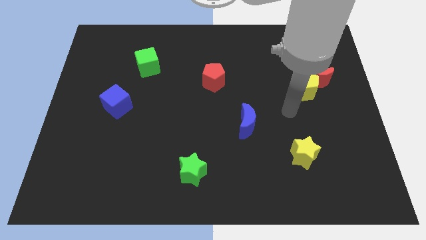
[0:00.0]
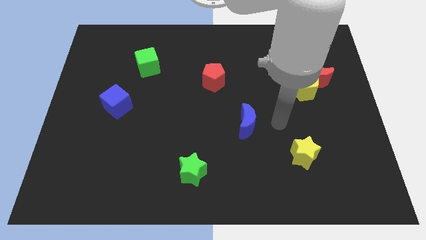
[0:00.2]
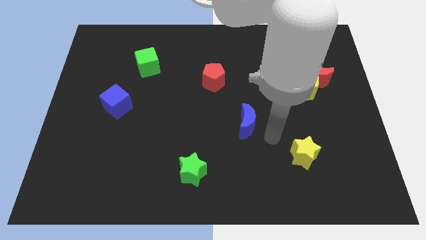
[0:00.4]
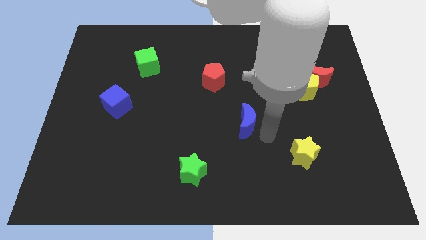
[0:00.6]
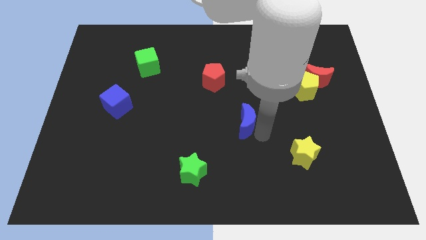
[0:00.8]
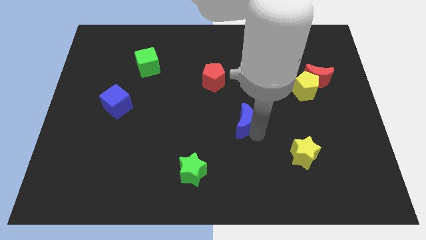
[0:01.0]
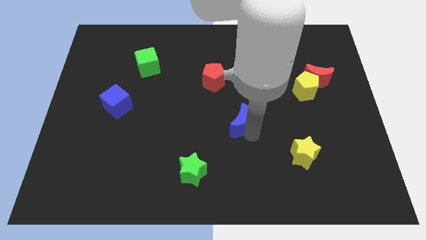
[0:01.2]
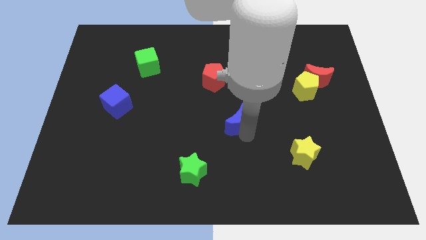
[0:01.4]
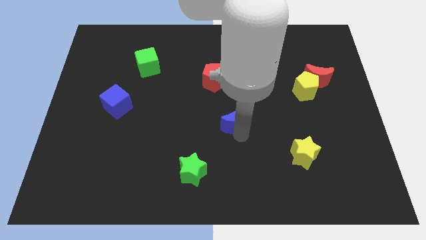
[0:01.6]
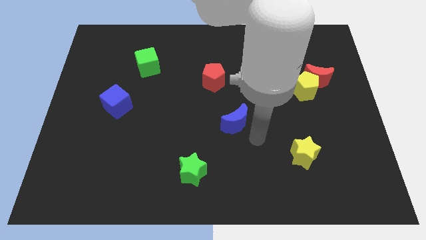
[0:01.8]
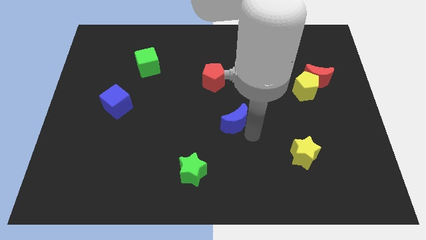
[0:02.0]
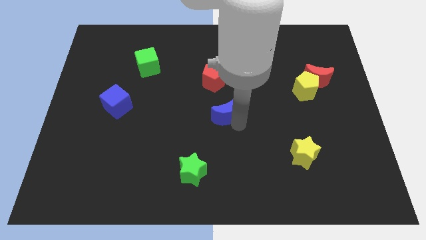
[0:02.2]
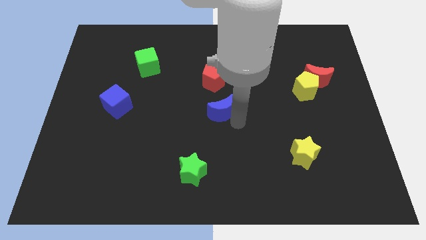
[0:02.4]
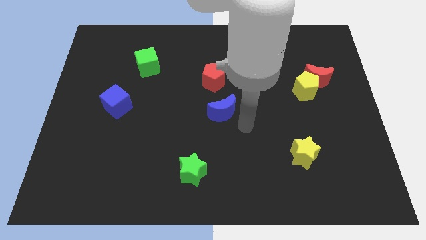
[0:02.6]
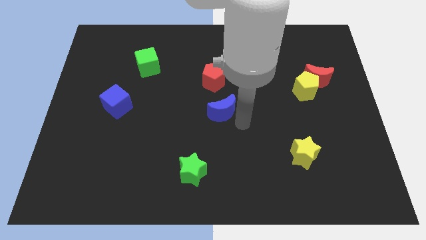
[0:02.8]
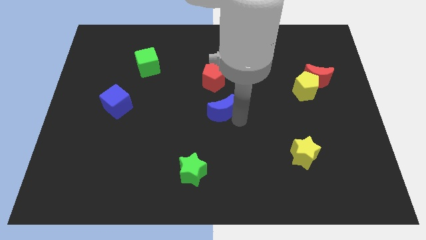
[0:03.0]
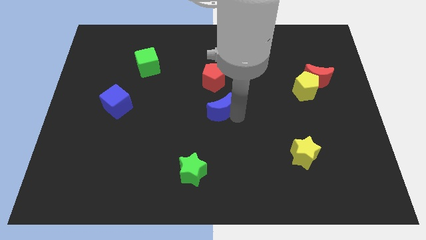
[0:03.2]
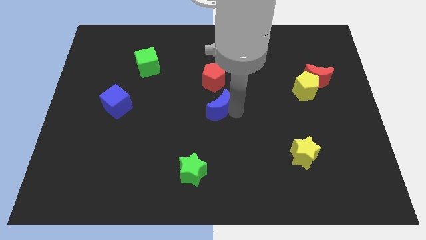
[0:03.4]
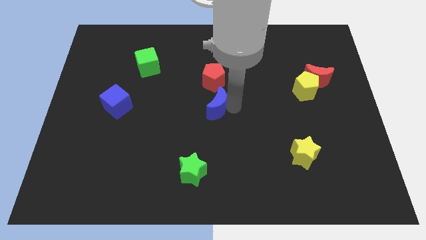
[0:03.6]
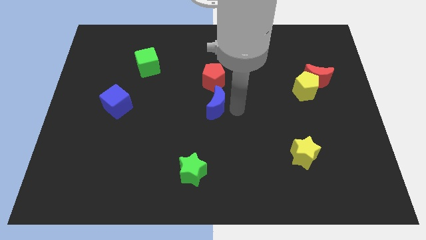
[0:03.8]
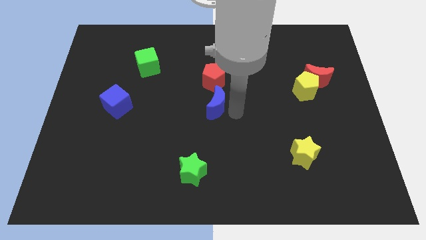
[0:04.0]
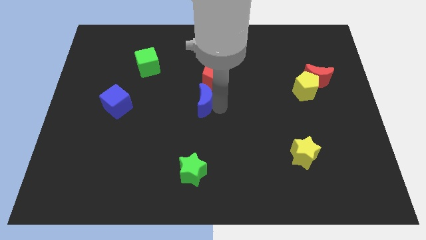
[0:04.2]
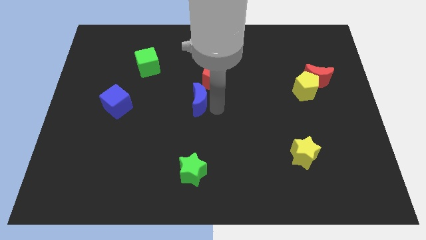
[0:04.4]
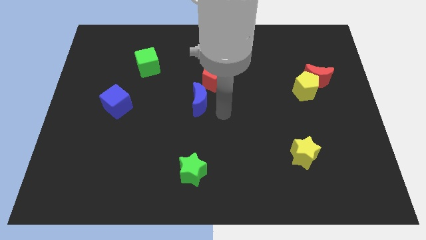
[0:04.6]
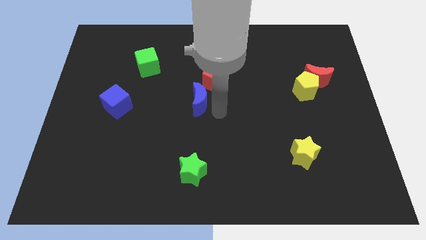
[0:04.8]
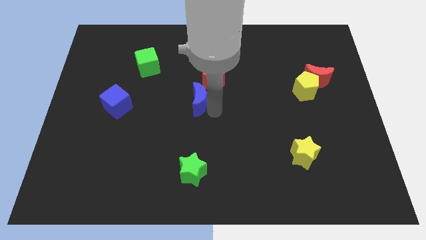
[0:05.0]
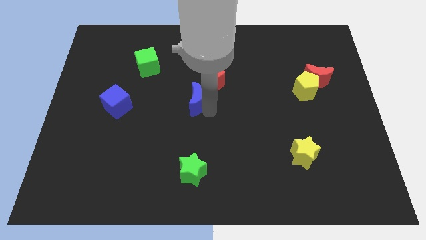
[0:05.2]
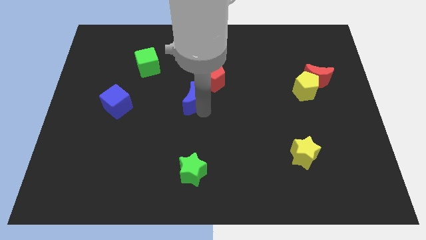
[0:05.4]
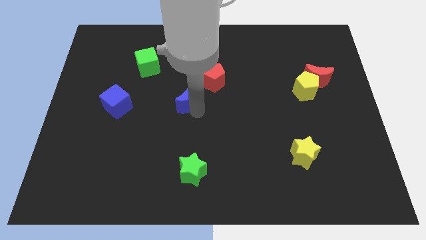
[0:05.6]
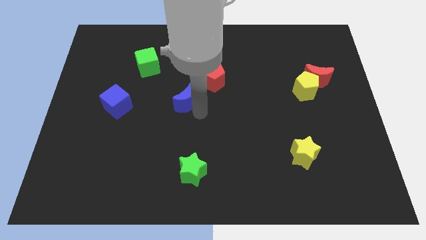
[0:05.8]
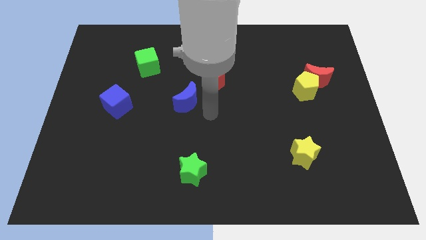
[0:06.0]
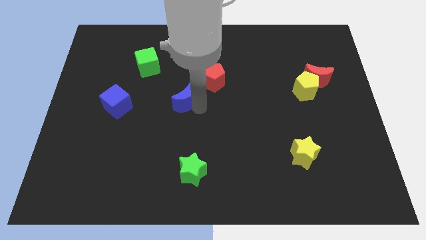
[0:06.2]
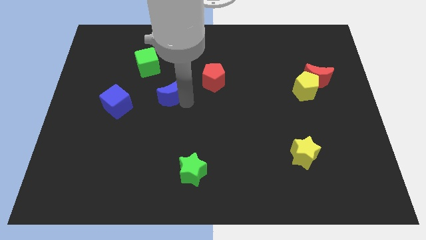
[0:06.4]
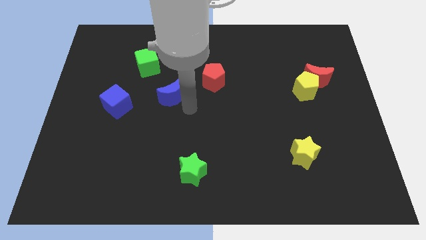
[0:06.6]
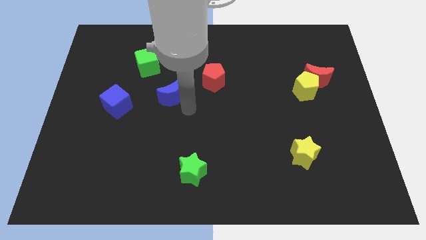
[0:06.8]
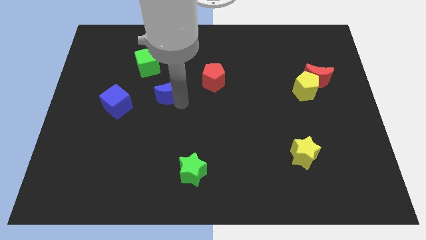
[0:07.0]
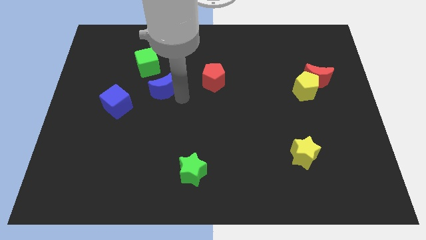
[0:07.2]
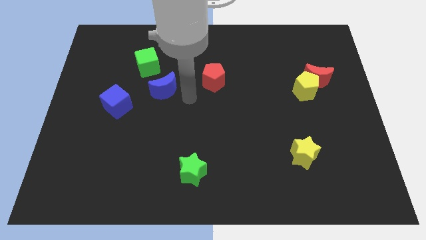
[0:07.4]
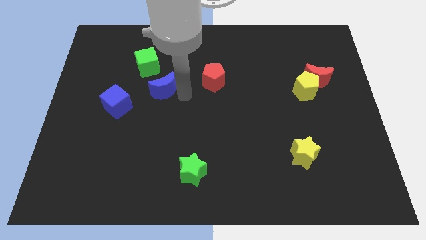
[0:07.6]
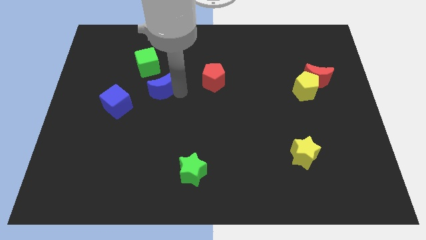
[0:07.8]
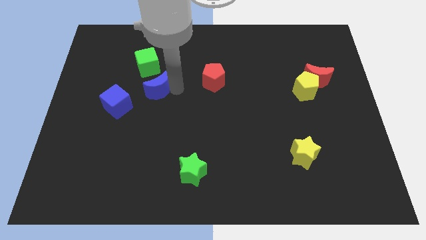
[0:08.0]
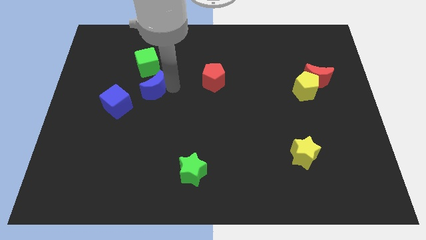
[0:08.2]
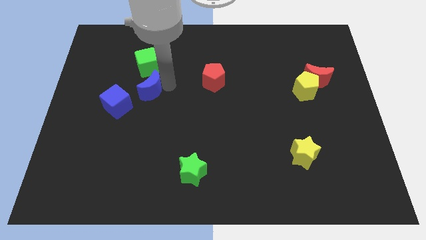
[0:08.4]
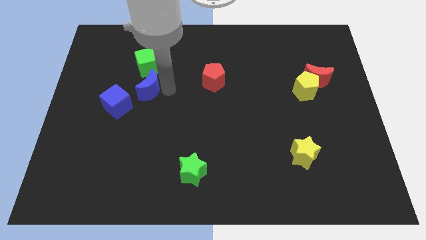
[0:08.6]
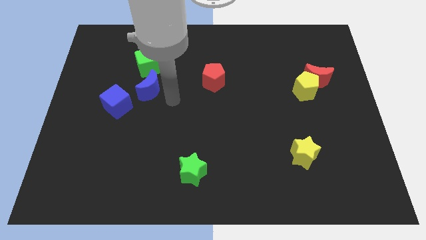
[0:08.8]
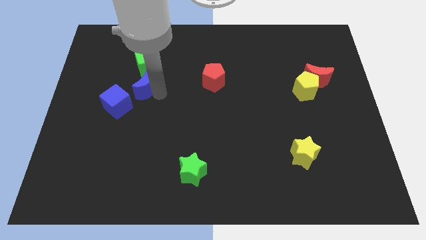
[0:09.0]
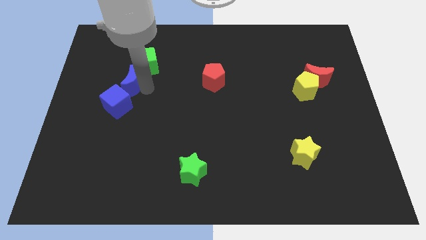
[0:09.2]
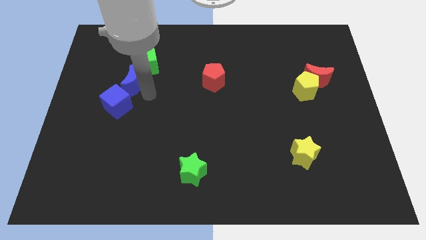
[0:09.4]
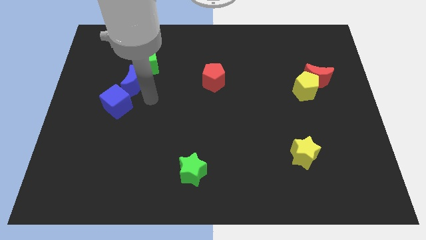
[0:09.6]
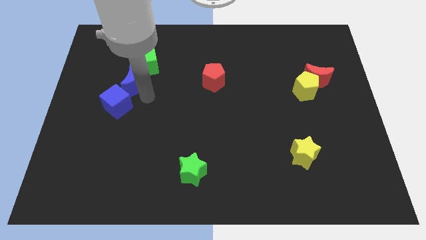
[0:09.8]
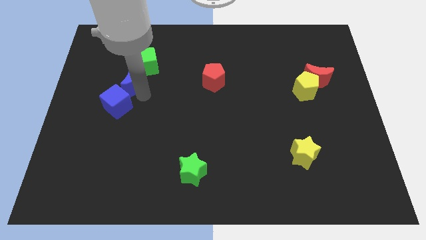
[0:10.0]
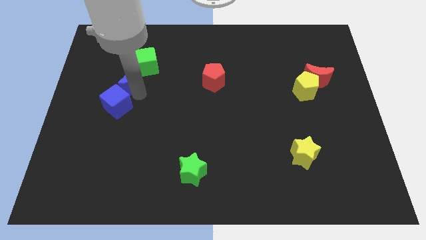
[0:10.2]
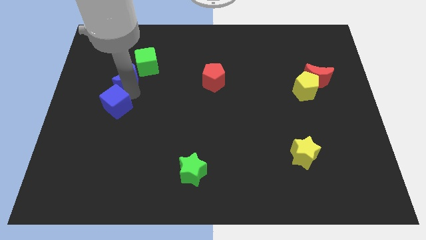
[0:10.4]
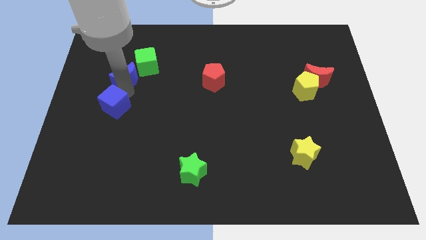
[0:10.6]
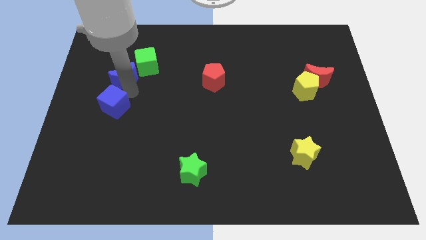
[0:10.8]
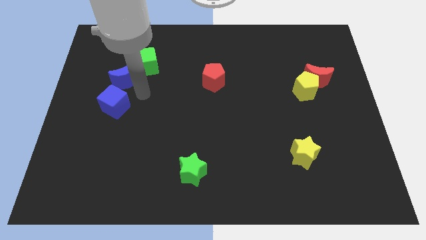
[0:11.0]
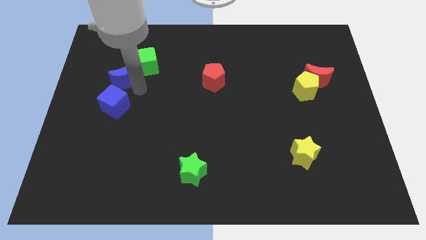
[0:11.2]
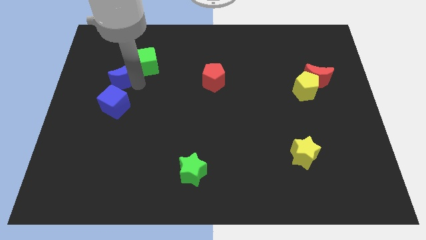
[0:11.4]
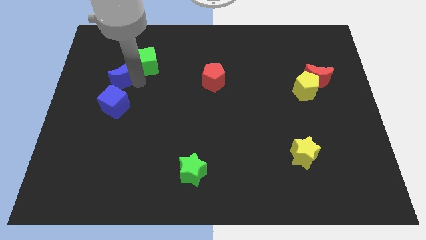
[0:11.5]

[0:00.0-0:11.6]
slide the blue moon to the left side of the green cube

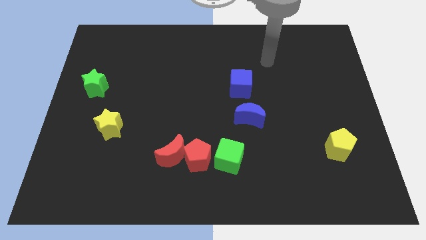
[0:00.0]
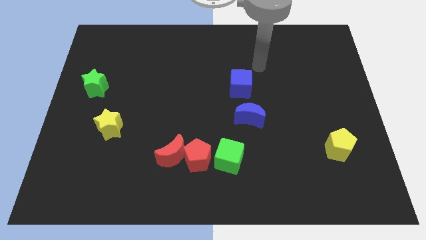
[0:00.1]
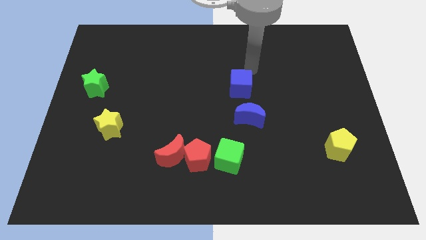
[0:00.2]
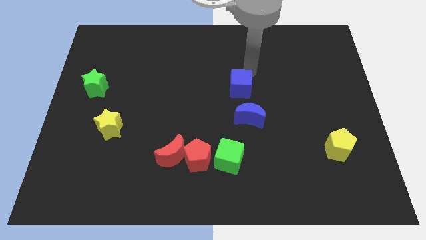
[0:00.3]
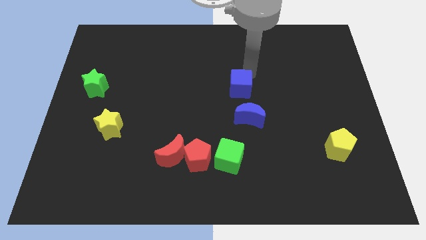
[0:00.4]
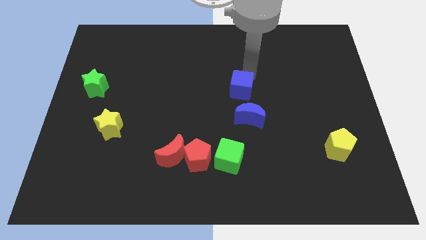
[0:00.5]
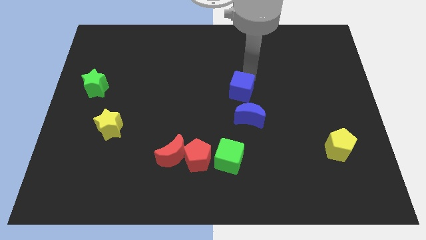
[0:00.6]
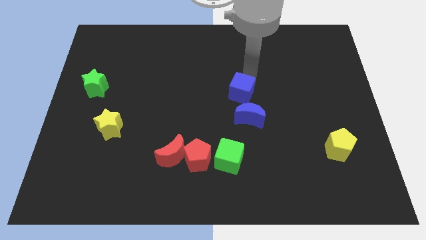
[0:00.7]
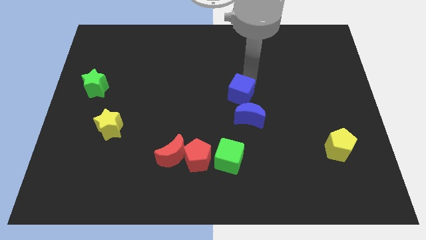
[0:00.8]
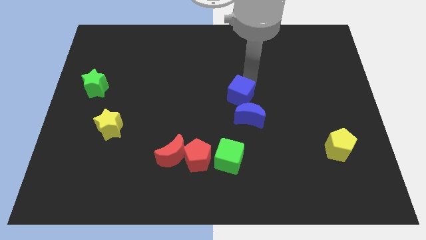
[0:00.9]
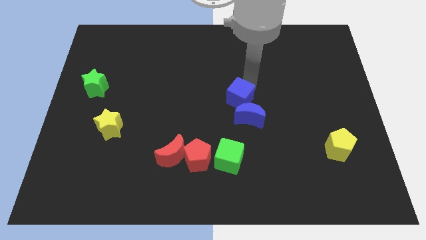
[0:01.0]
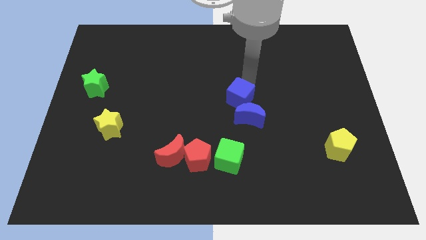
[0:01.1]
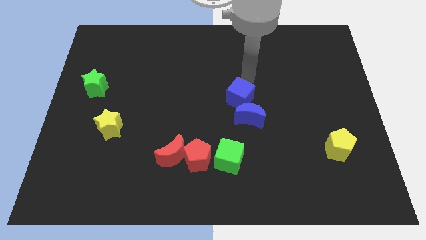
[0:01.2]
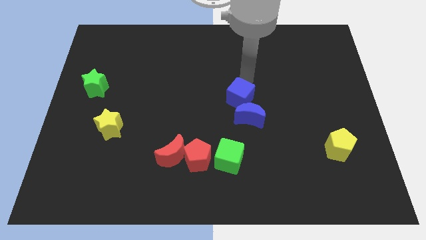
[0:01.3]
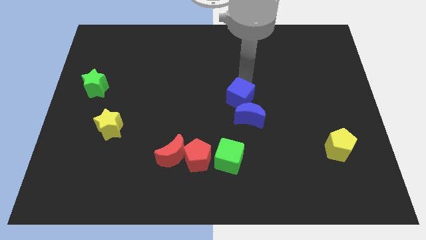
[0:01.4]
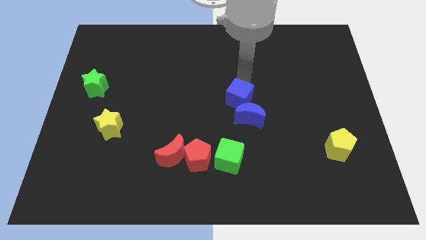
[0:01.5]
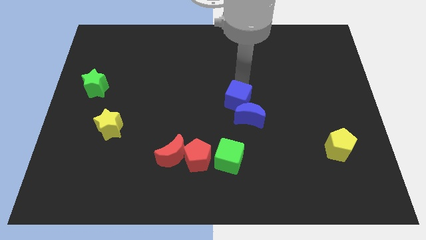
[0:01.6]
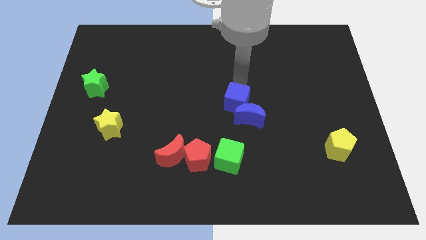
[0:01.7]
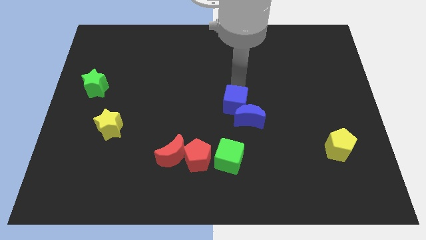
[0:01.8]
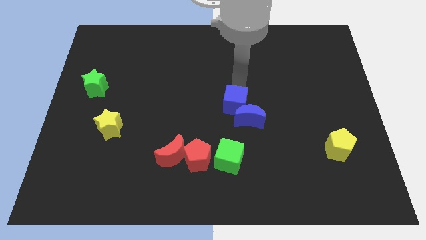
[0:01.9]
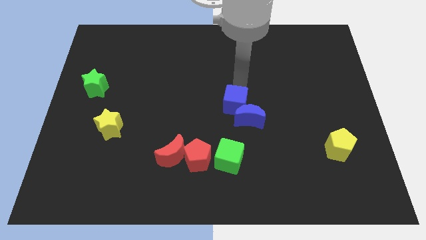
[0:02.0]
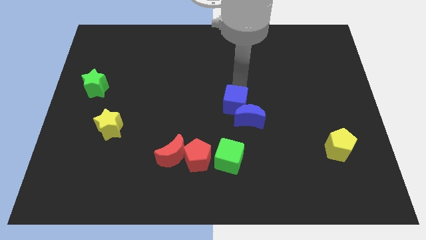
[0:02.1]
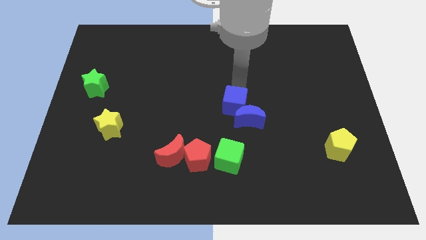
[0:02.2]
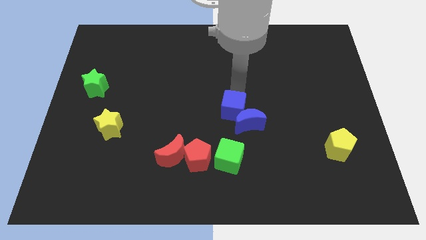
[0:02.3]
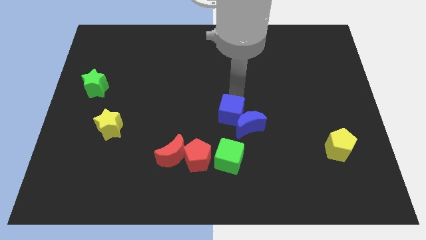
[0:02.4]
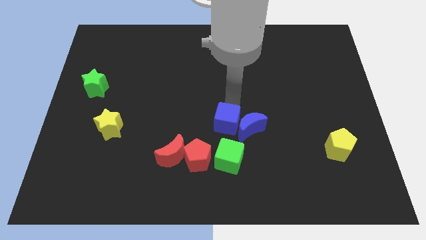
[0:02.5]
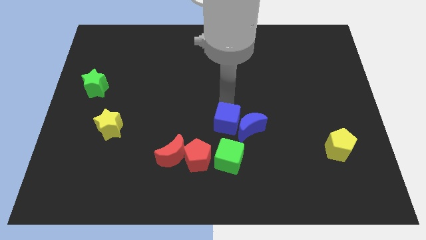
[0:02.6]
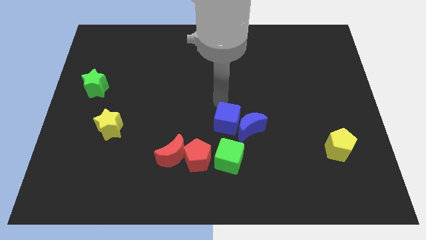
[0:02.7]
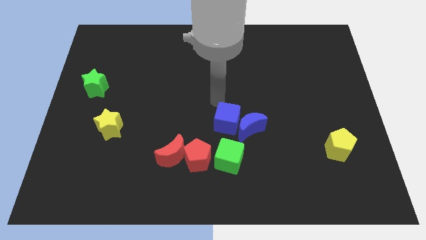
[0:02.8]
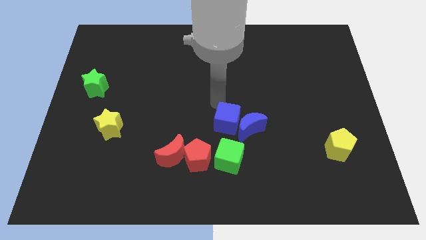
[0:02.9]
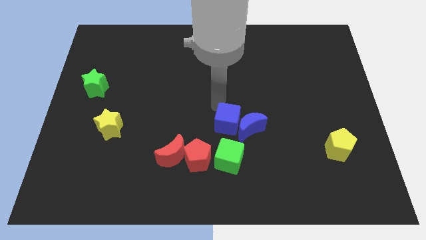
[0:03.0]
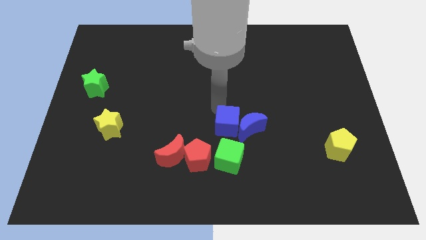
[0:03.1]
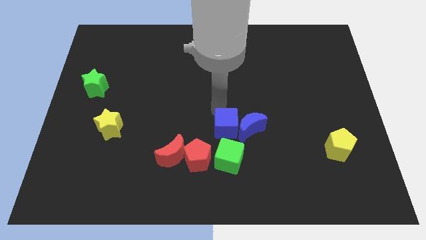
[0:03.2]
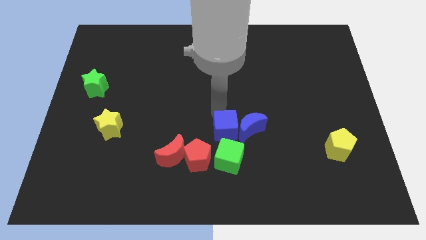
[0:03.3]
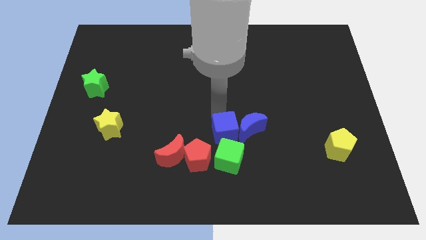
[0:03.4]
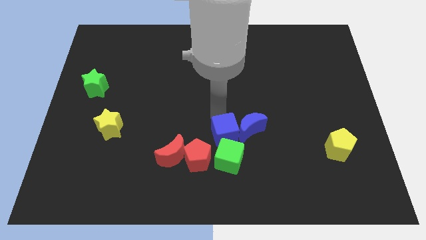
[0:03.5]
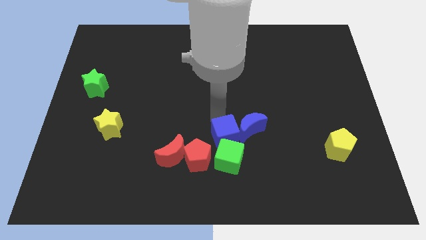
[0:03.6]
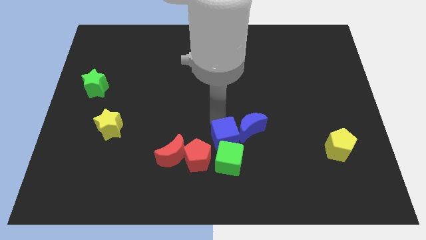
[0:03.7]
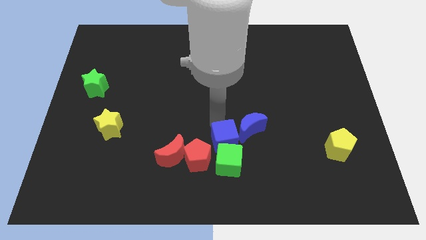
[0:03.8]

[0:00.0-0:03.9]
put the blue cube right of the red pentagon
